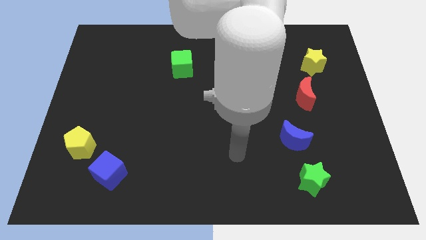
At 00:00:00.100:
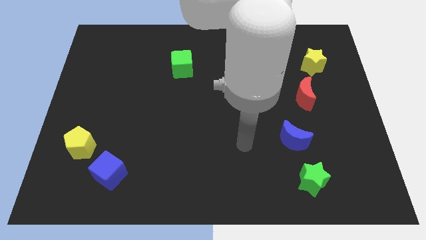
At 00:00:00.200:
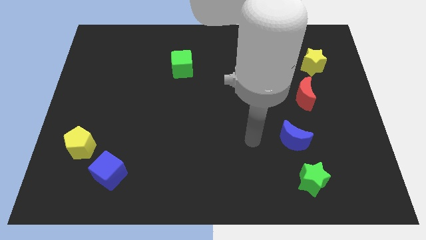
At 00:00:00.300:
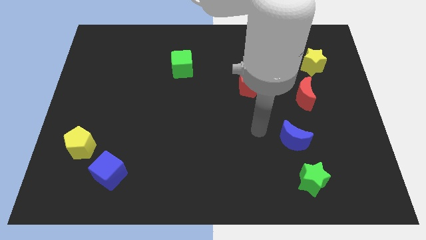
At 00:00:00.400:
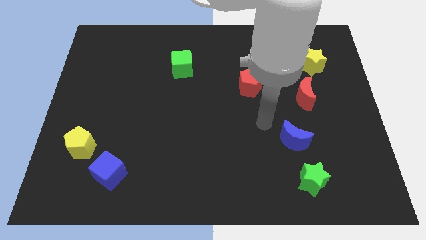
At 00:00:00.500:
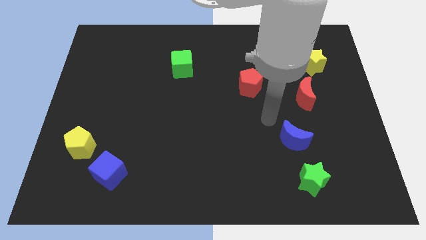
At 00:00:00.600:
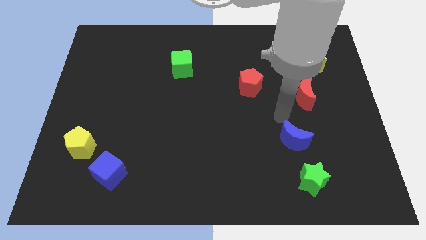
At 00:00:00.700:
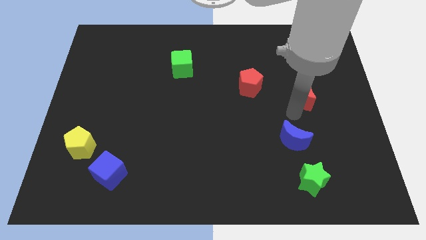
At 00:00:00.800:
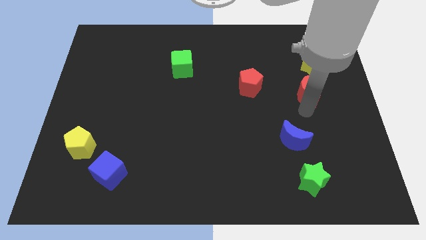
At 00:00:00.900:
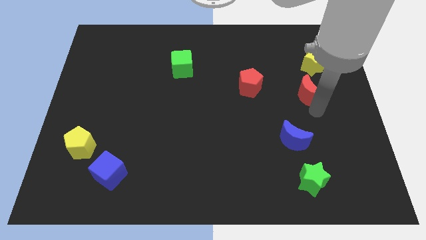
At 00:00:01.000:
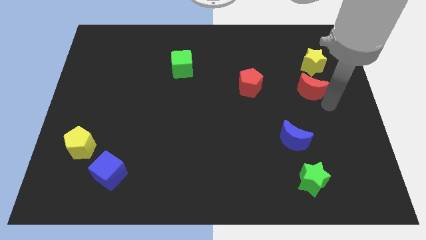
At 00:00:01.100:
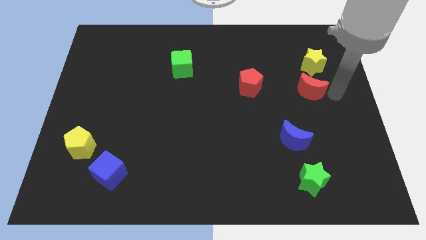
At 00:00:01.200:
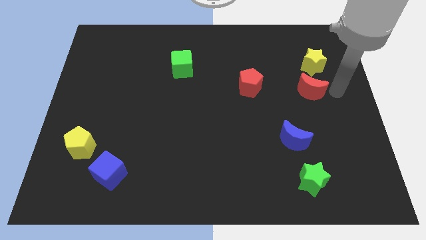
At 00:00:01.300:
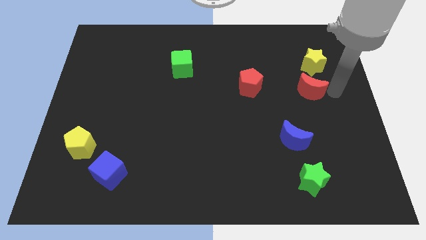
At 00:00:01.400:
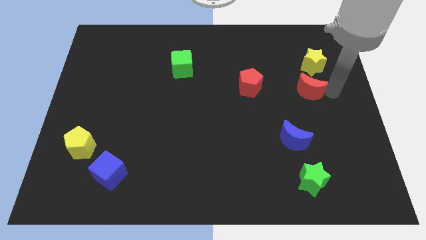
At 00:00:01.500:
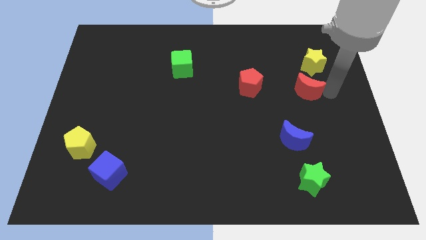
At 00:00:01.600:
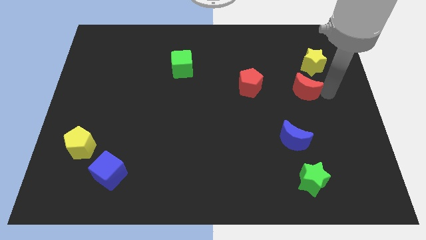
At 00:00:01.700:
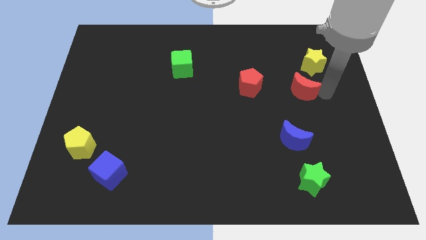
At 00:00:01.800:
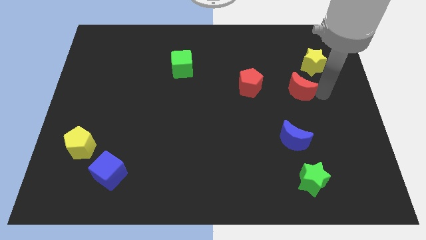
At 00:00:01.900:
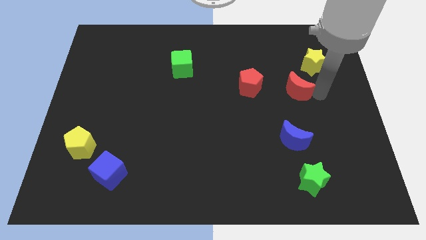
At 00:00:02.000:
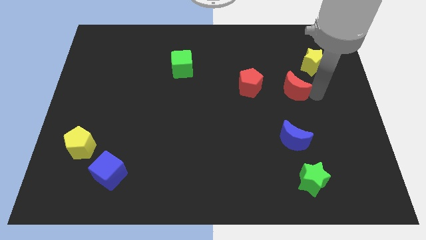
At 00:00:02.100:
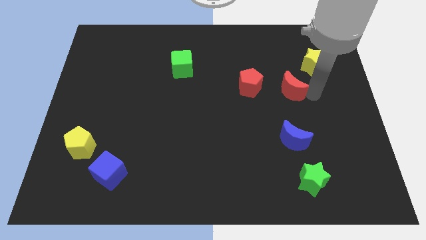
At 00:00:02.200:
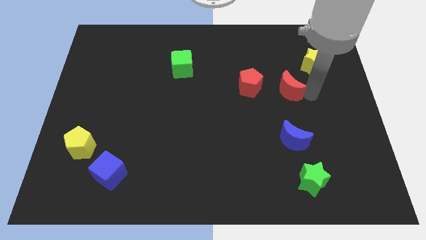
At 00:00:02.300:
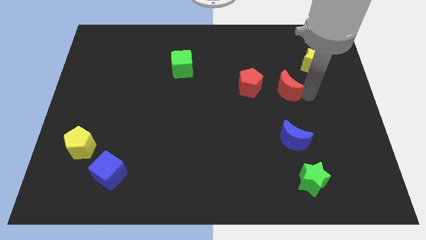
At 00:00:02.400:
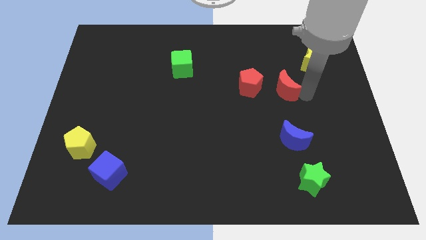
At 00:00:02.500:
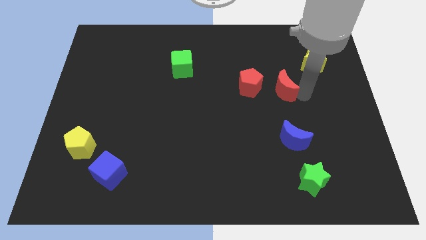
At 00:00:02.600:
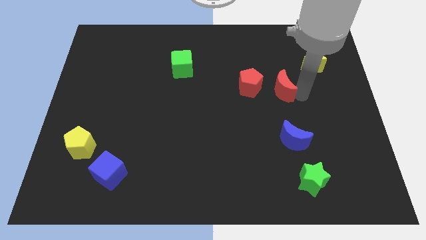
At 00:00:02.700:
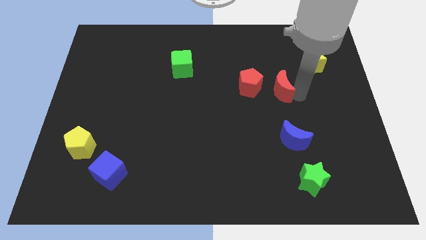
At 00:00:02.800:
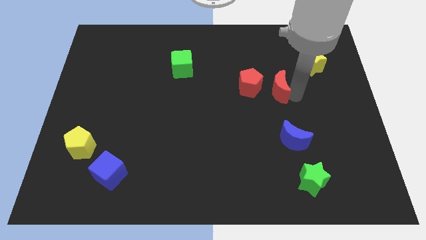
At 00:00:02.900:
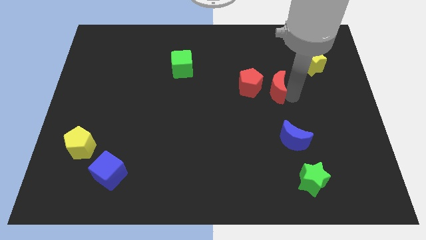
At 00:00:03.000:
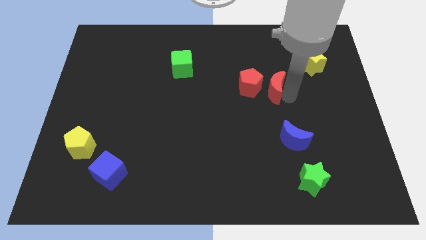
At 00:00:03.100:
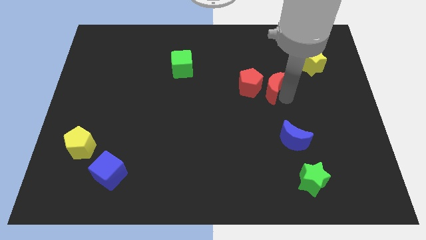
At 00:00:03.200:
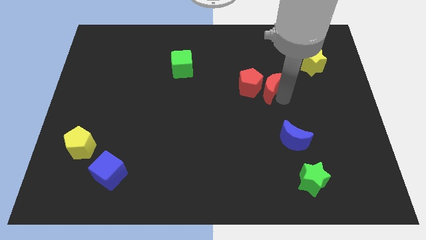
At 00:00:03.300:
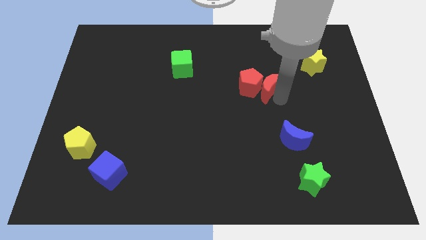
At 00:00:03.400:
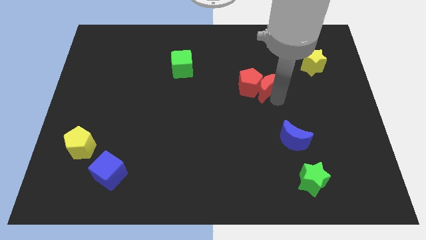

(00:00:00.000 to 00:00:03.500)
push the red moon a bit up and then to the left

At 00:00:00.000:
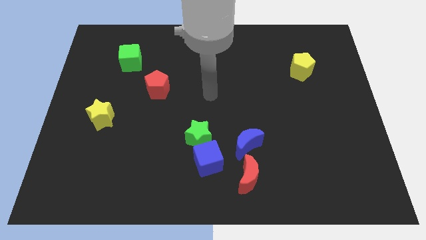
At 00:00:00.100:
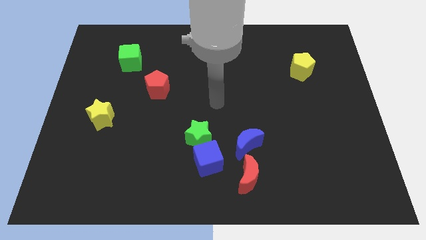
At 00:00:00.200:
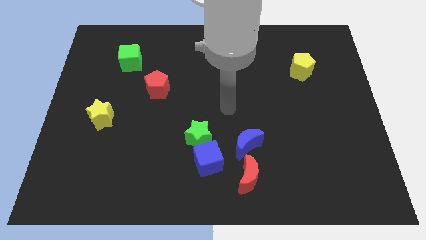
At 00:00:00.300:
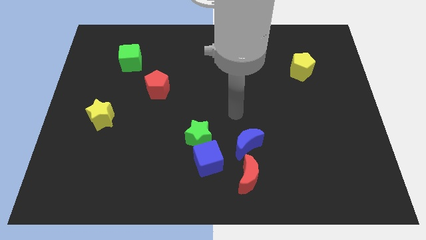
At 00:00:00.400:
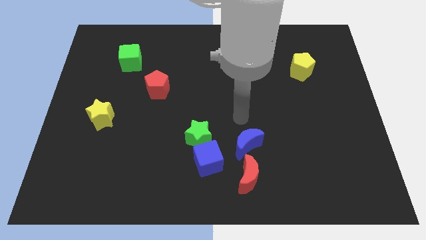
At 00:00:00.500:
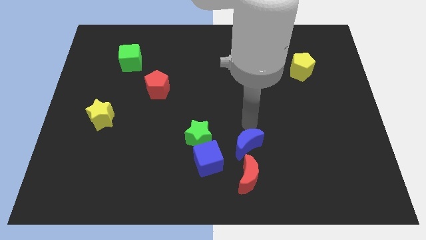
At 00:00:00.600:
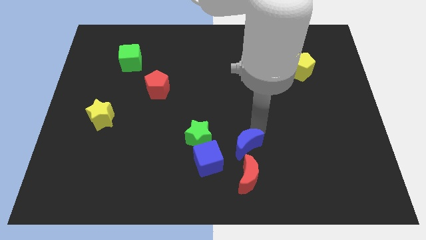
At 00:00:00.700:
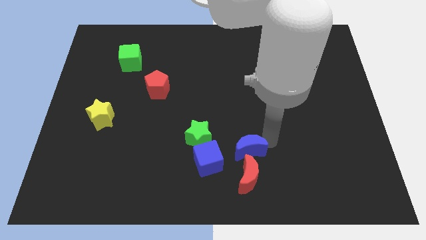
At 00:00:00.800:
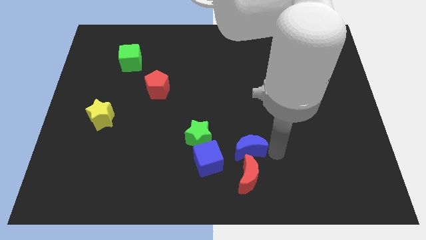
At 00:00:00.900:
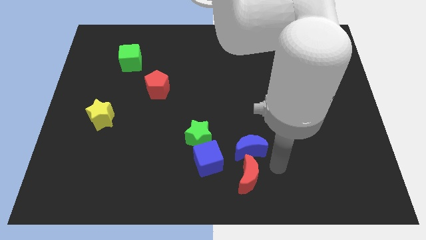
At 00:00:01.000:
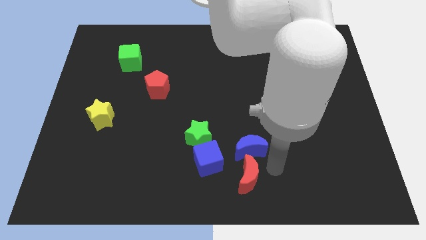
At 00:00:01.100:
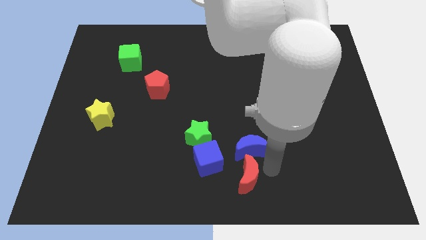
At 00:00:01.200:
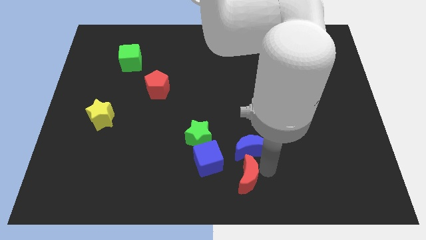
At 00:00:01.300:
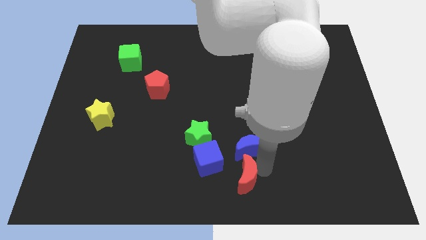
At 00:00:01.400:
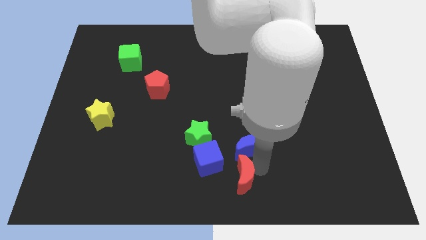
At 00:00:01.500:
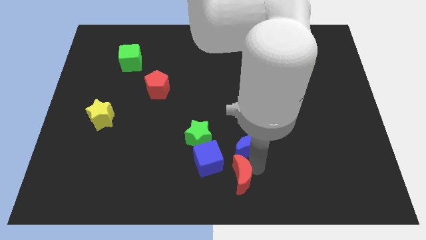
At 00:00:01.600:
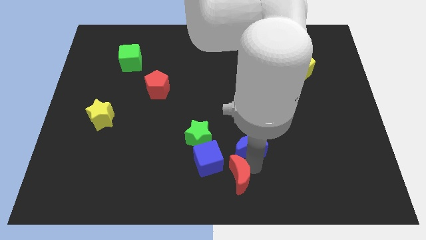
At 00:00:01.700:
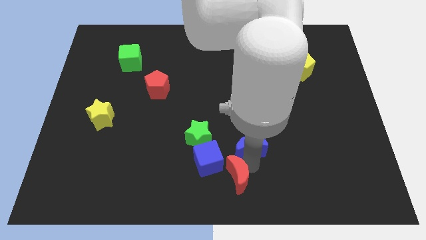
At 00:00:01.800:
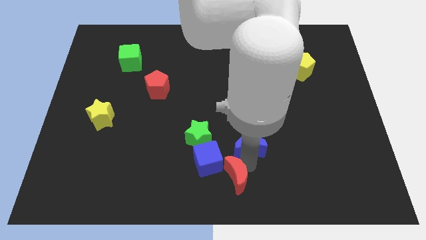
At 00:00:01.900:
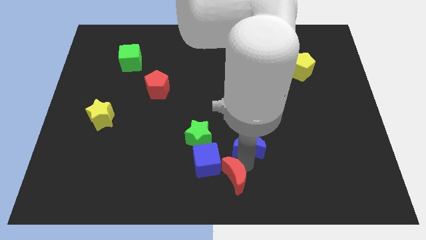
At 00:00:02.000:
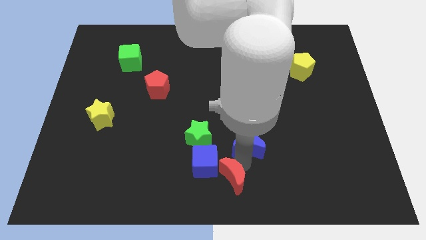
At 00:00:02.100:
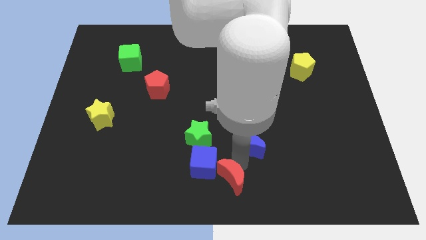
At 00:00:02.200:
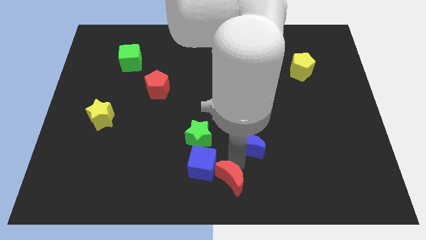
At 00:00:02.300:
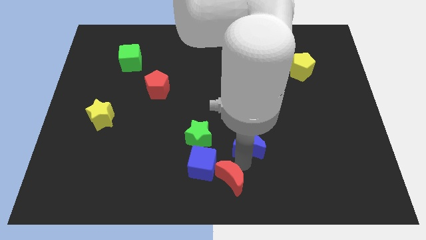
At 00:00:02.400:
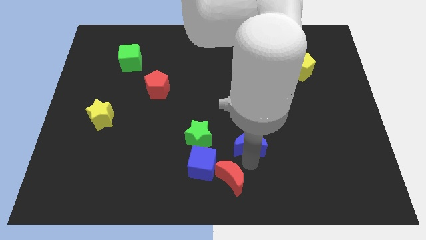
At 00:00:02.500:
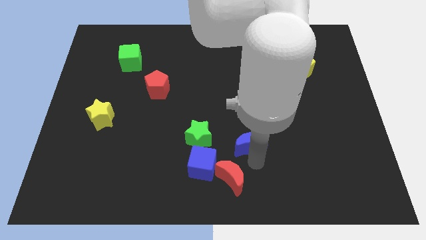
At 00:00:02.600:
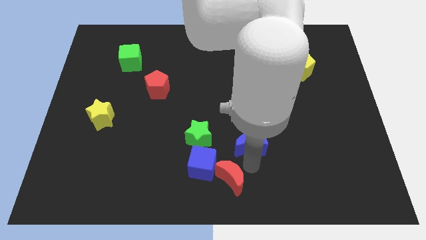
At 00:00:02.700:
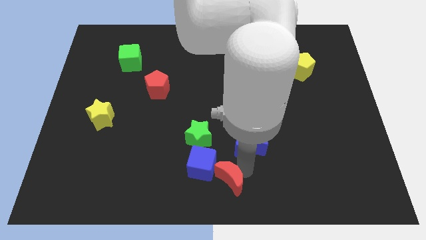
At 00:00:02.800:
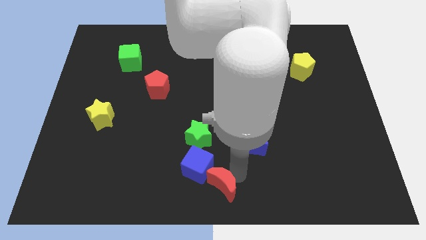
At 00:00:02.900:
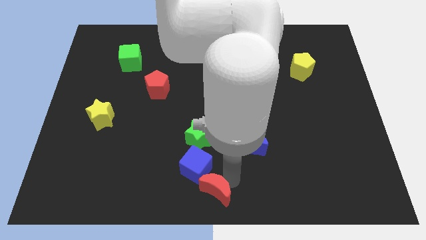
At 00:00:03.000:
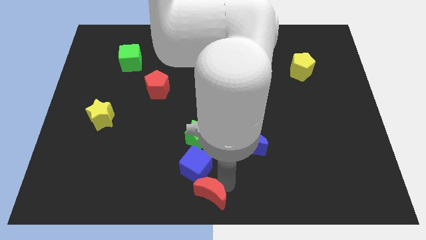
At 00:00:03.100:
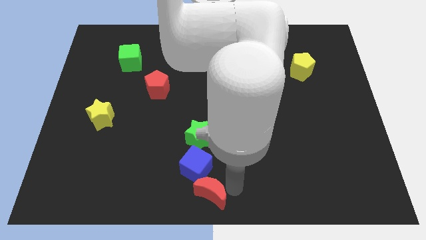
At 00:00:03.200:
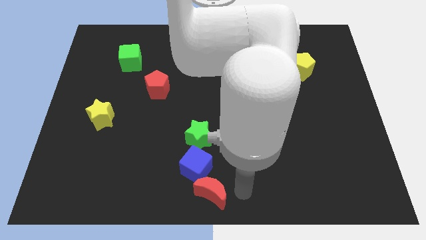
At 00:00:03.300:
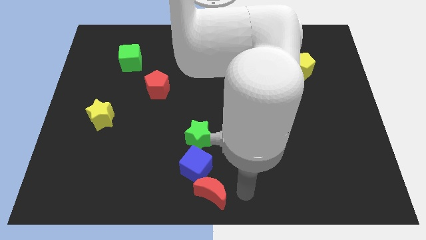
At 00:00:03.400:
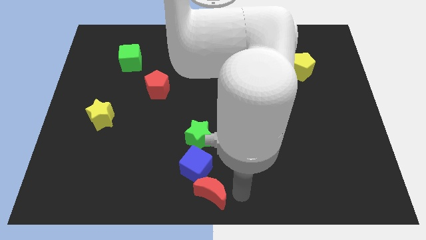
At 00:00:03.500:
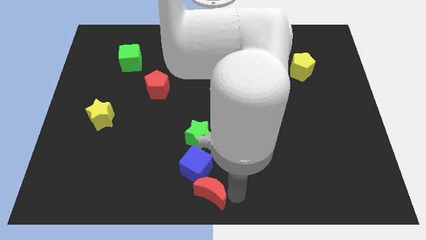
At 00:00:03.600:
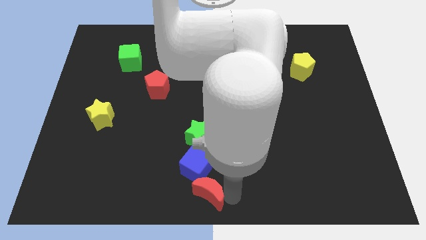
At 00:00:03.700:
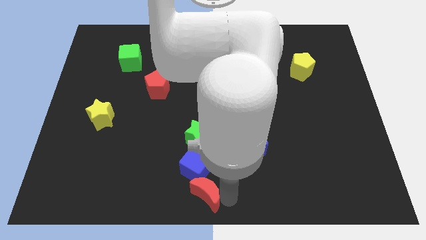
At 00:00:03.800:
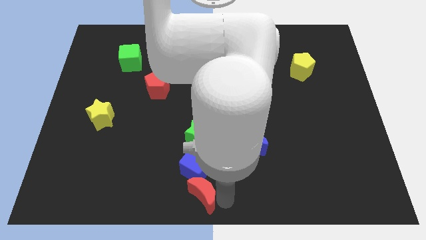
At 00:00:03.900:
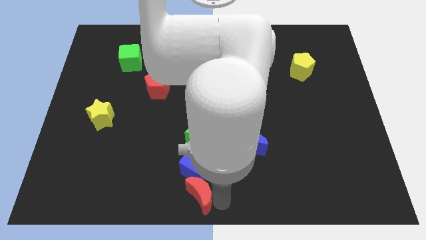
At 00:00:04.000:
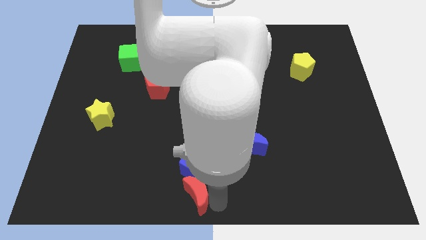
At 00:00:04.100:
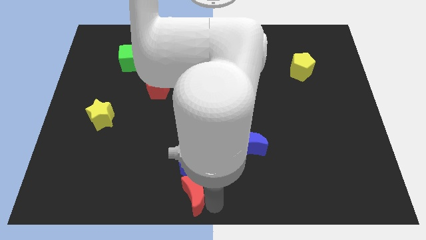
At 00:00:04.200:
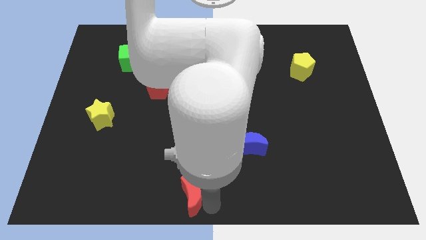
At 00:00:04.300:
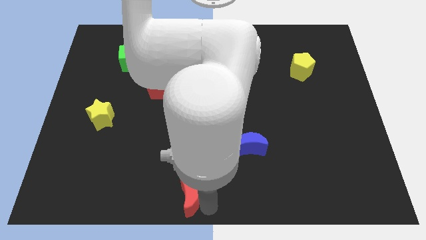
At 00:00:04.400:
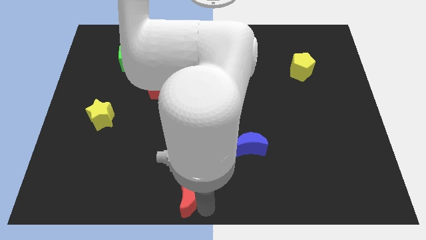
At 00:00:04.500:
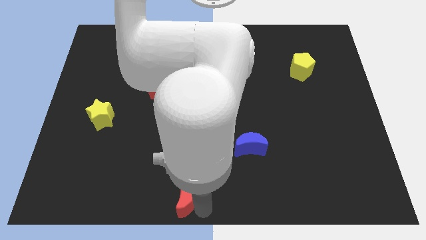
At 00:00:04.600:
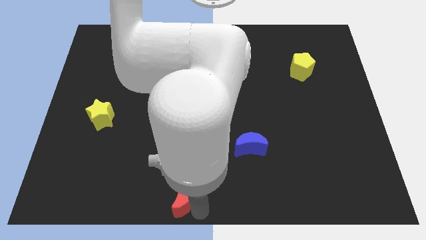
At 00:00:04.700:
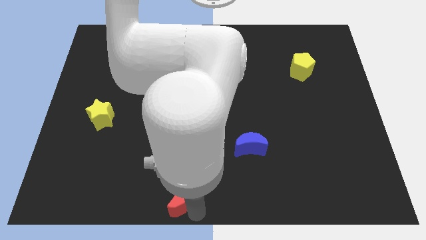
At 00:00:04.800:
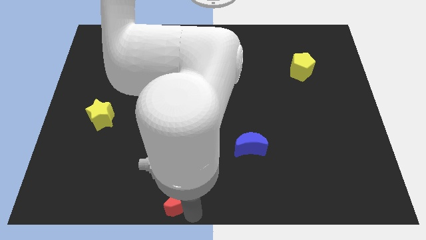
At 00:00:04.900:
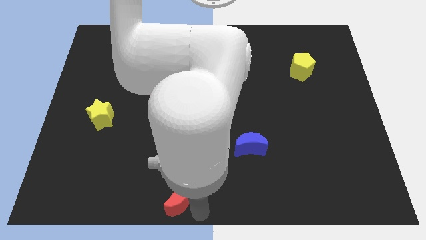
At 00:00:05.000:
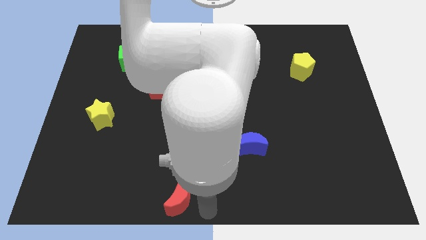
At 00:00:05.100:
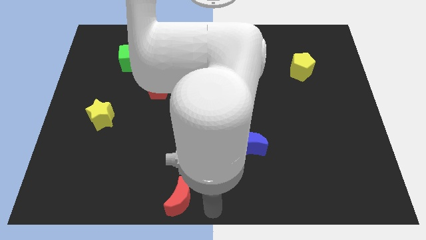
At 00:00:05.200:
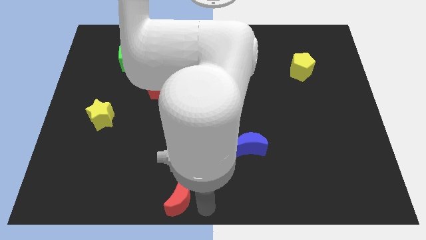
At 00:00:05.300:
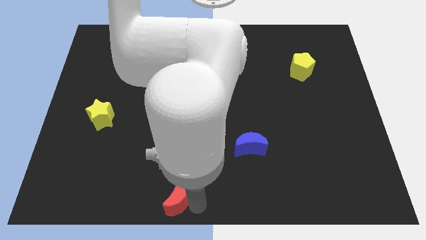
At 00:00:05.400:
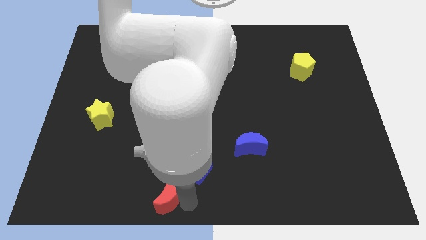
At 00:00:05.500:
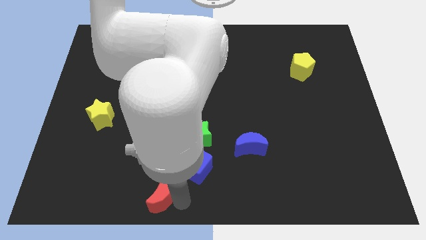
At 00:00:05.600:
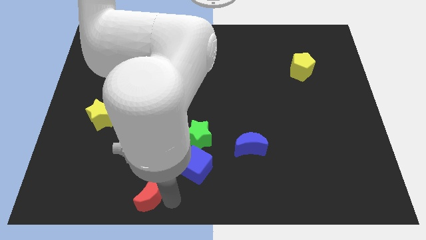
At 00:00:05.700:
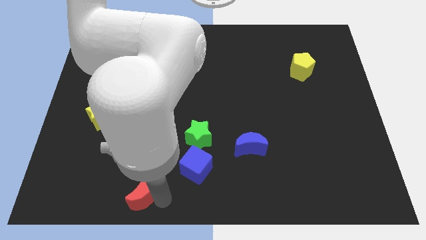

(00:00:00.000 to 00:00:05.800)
move the red moon left
